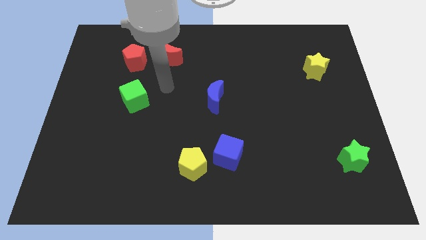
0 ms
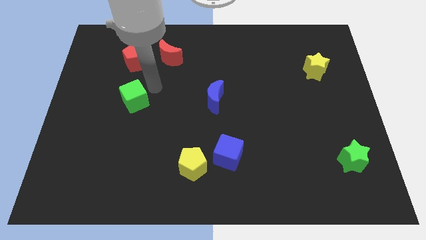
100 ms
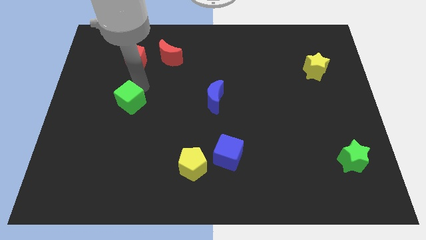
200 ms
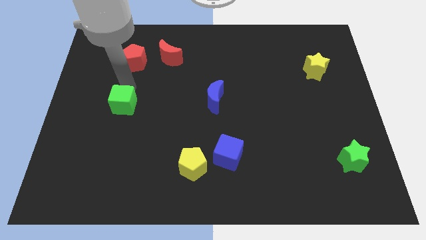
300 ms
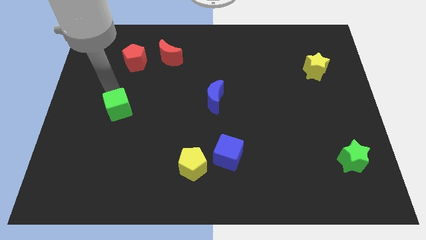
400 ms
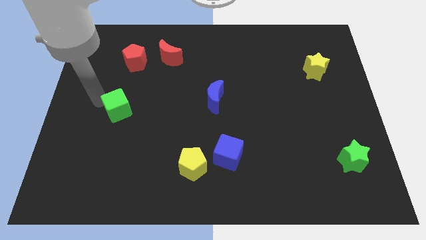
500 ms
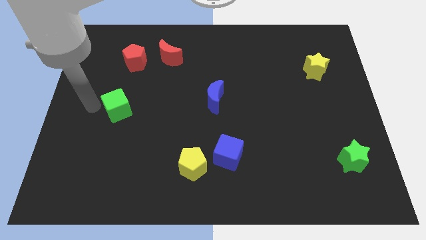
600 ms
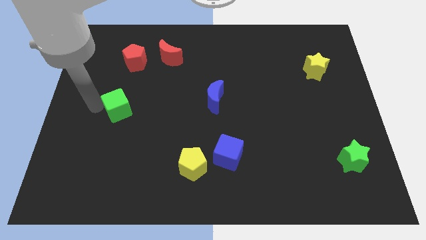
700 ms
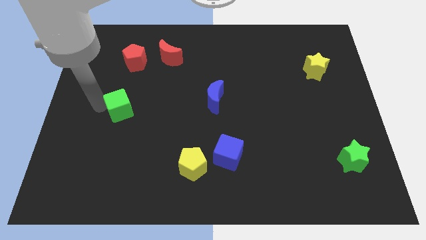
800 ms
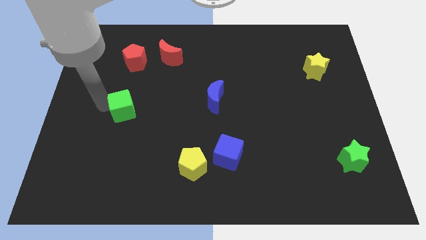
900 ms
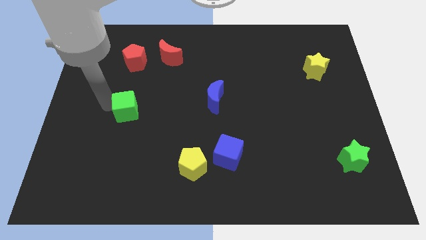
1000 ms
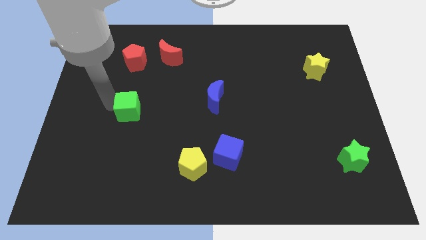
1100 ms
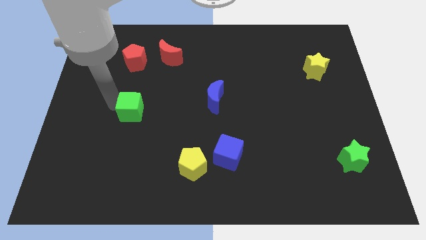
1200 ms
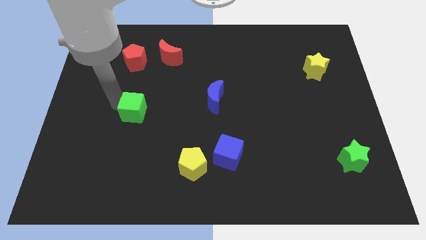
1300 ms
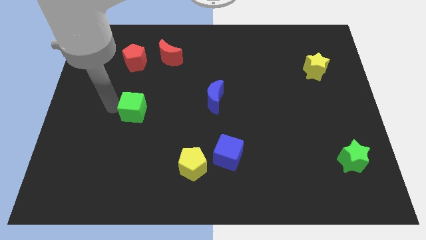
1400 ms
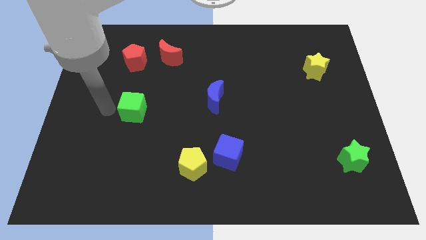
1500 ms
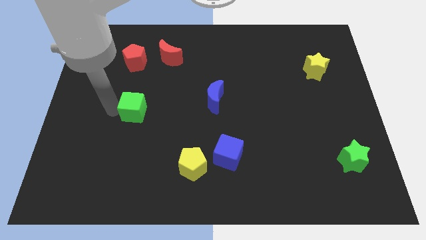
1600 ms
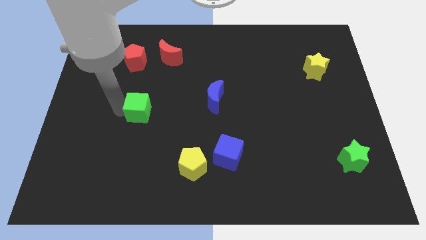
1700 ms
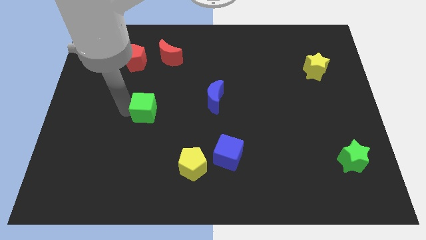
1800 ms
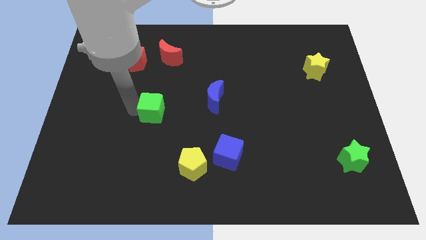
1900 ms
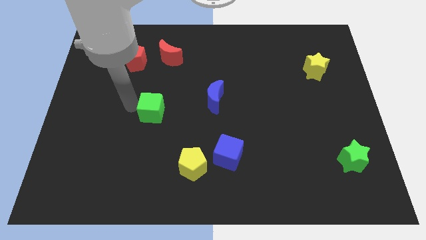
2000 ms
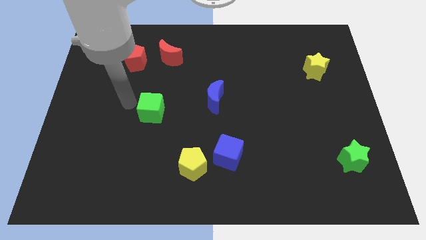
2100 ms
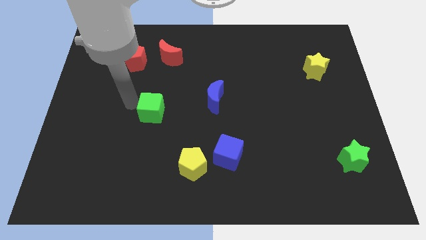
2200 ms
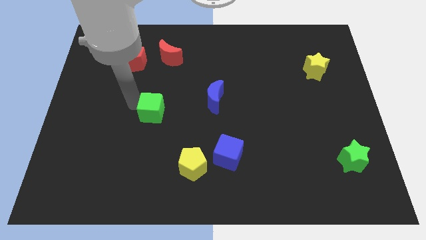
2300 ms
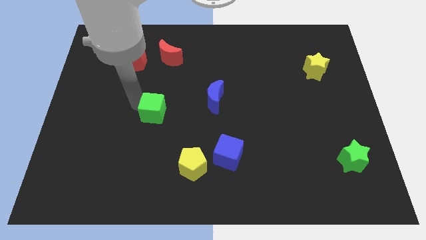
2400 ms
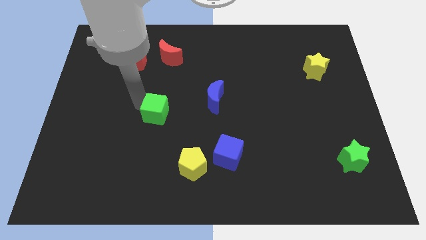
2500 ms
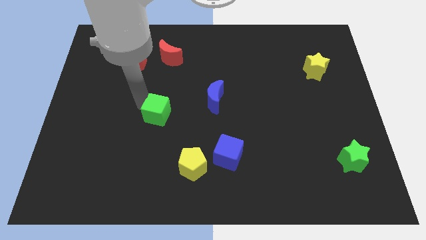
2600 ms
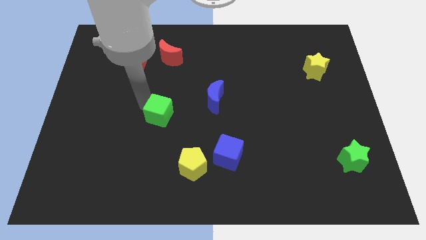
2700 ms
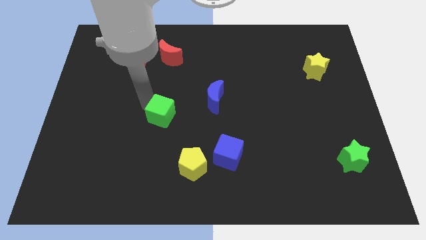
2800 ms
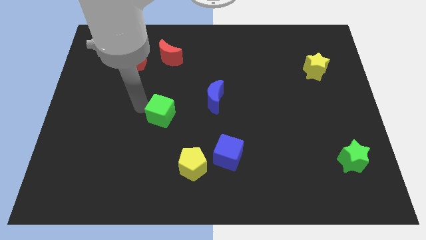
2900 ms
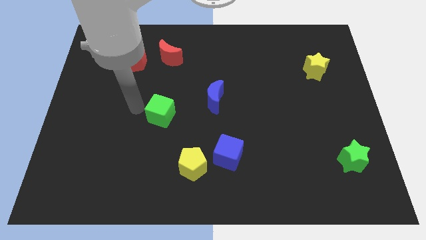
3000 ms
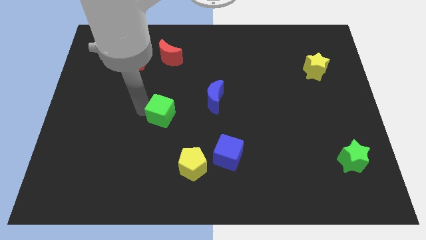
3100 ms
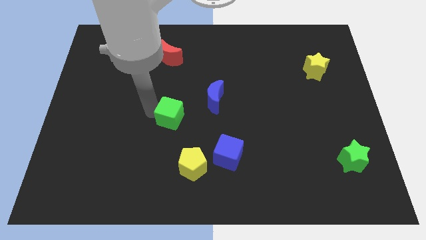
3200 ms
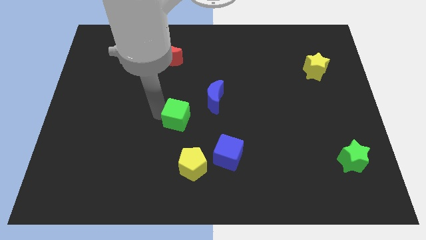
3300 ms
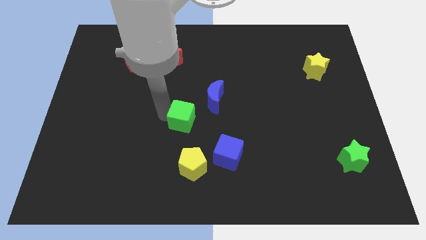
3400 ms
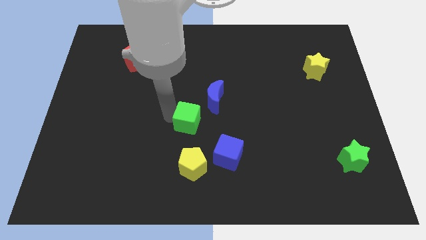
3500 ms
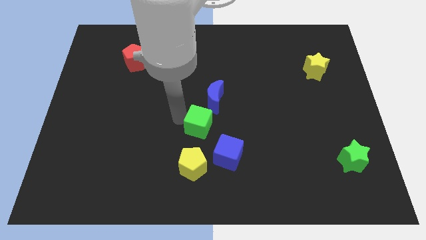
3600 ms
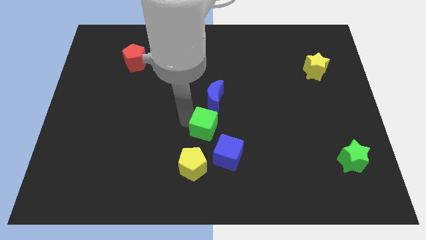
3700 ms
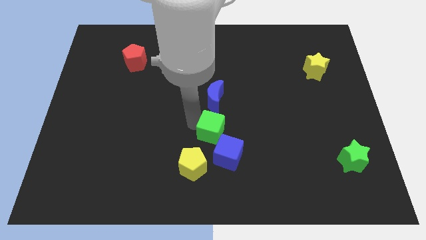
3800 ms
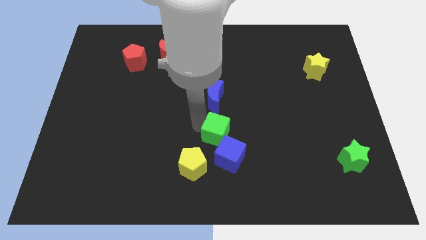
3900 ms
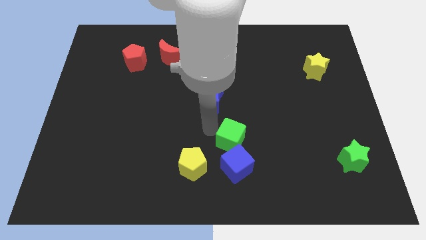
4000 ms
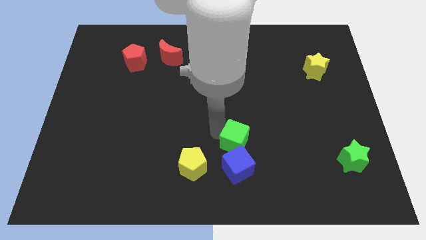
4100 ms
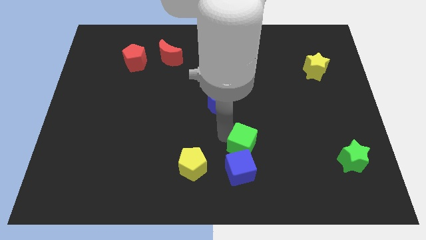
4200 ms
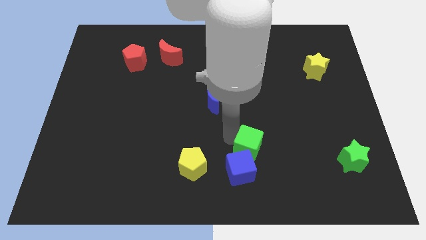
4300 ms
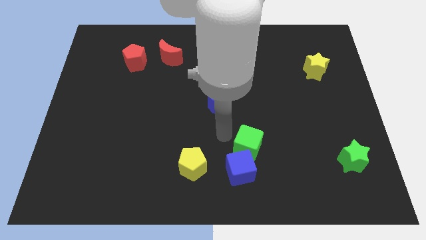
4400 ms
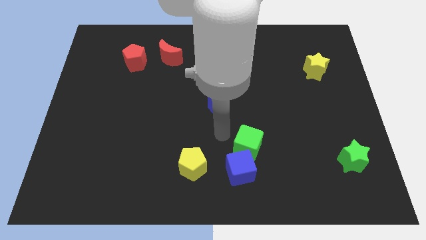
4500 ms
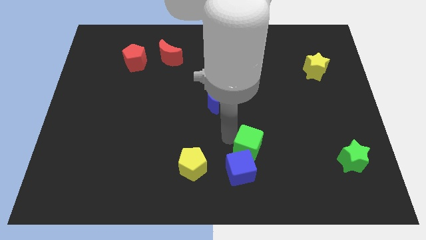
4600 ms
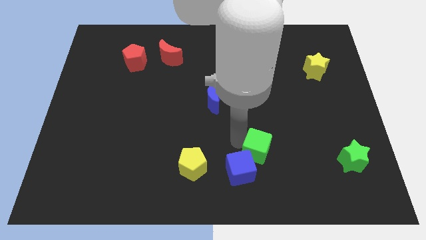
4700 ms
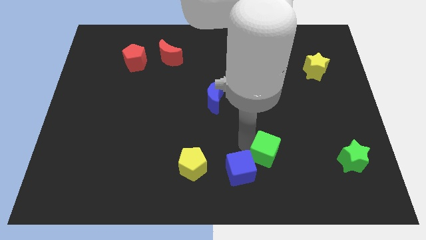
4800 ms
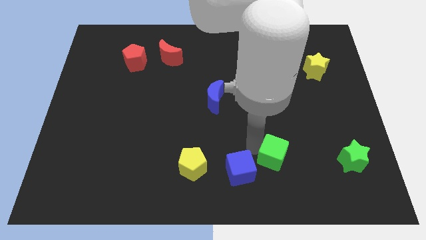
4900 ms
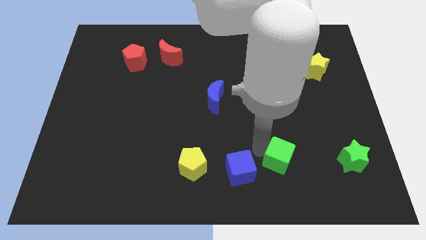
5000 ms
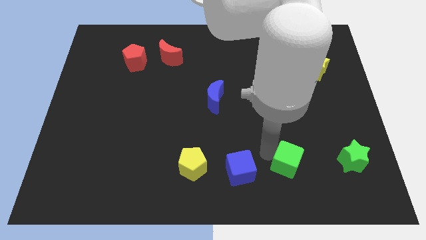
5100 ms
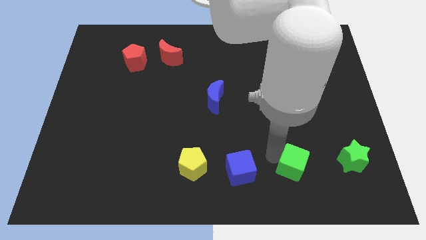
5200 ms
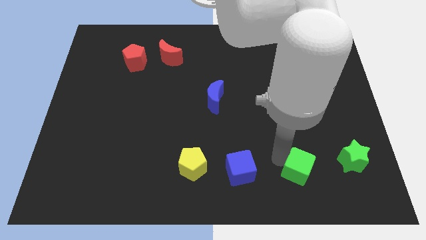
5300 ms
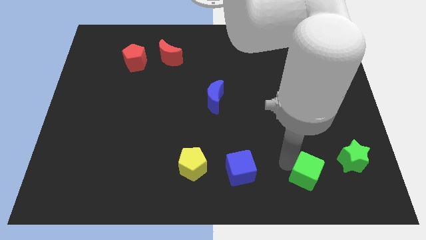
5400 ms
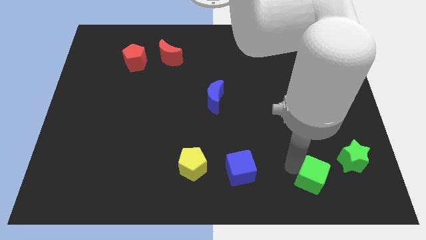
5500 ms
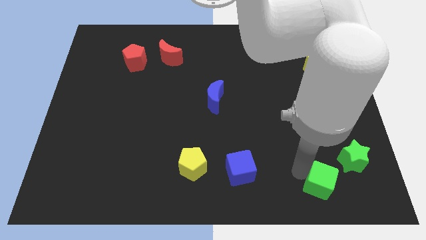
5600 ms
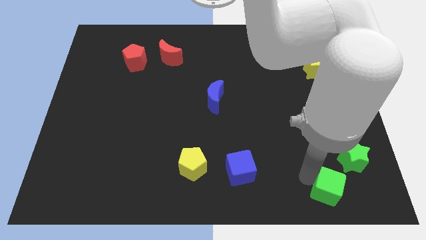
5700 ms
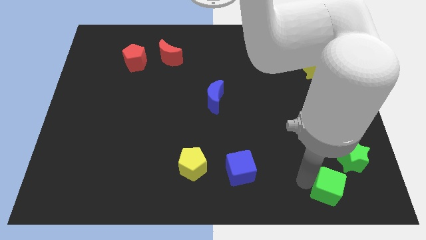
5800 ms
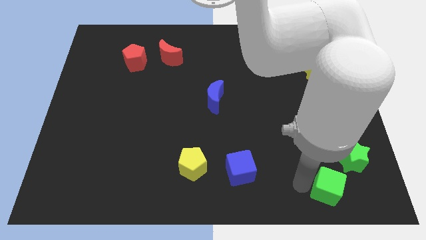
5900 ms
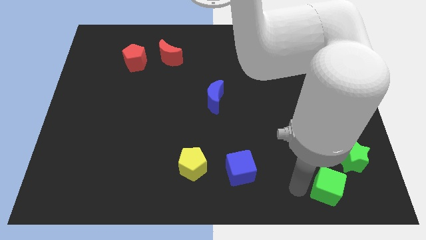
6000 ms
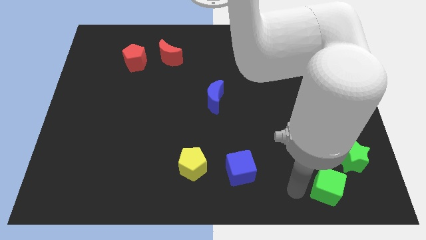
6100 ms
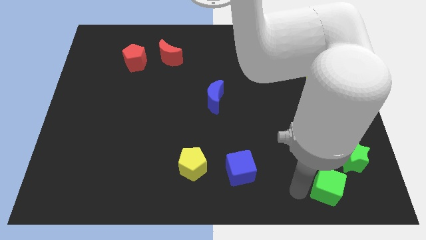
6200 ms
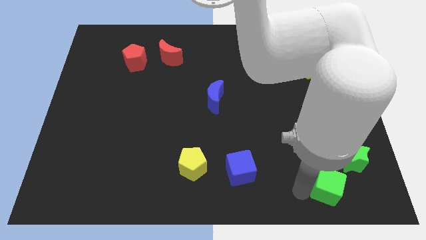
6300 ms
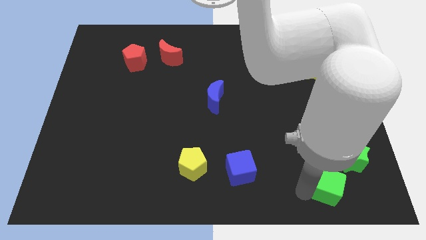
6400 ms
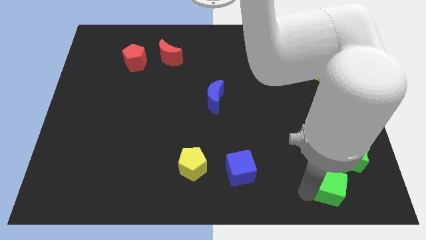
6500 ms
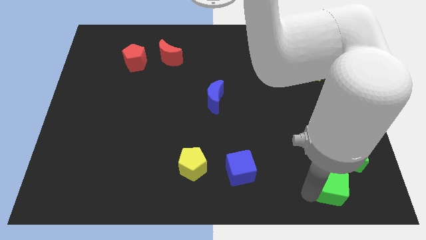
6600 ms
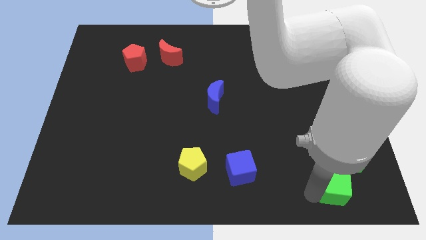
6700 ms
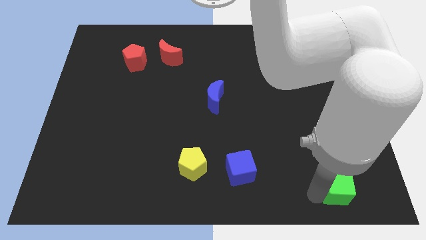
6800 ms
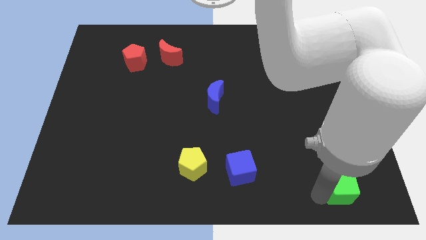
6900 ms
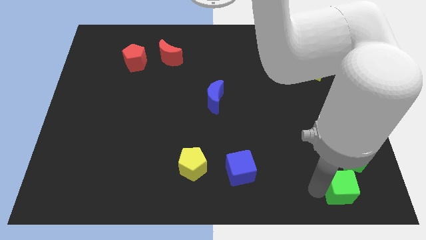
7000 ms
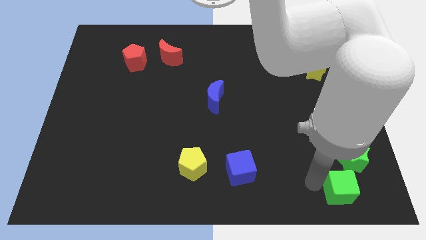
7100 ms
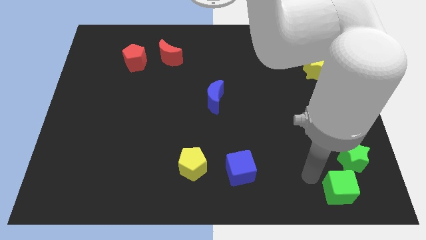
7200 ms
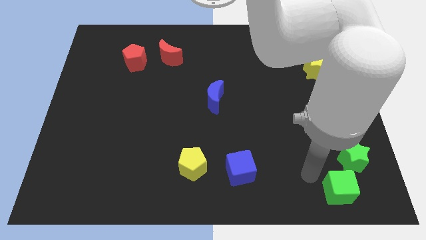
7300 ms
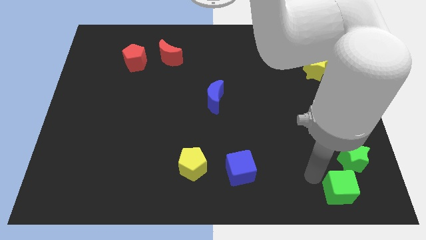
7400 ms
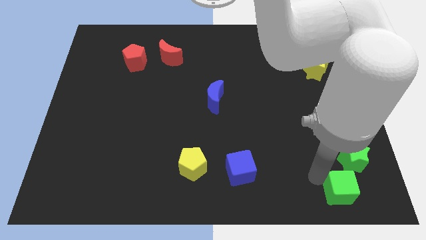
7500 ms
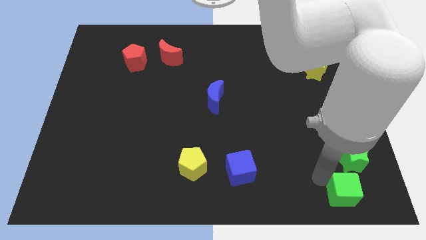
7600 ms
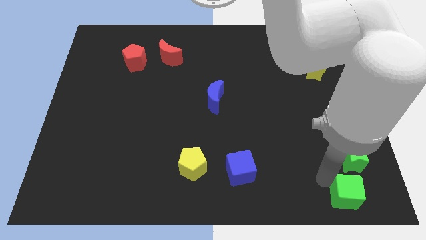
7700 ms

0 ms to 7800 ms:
push the green cube to the bottom right corner
